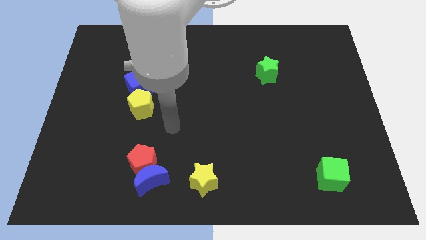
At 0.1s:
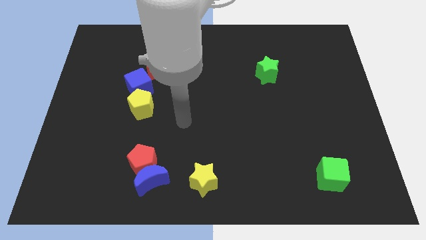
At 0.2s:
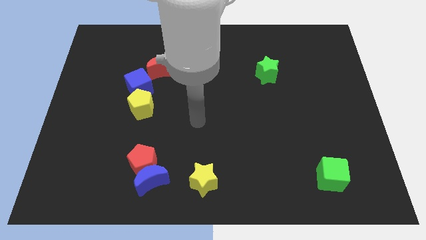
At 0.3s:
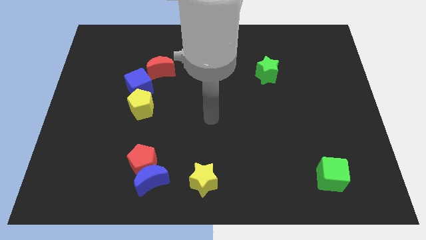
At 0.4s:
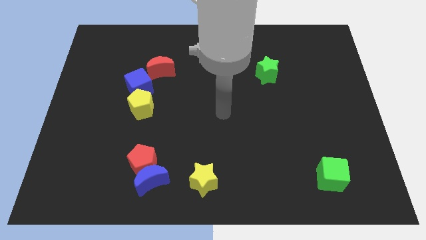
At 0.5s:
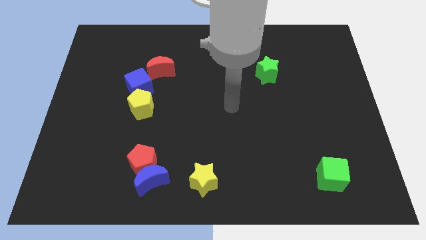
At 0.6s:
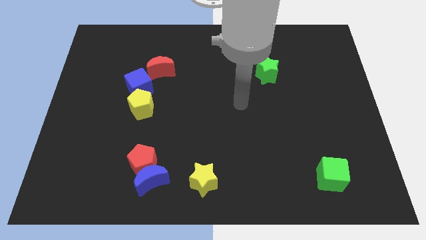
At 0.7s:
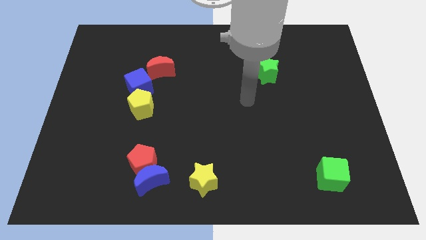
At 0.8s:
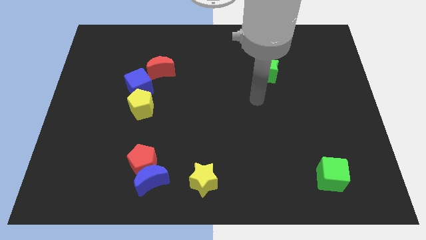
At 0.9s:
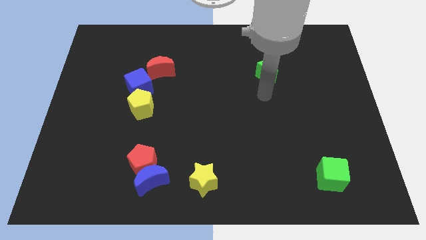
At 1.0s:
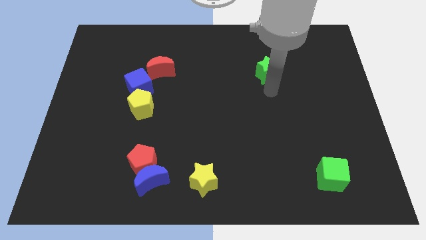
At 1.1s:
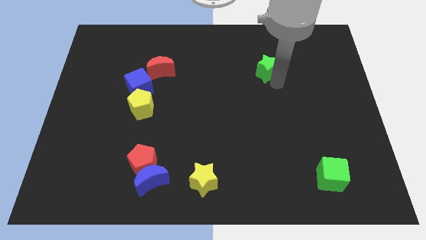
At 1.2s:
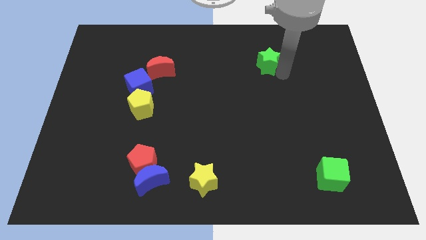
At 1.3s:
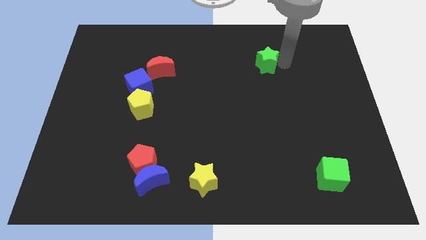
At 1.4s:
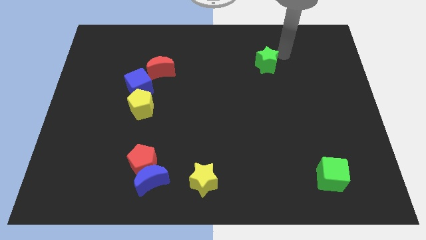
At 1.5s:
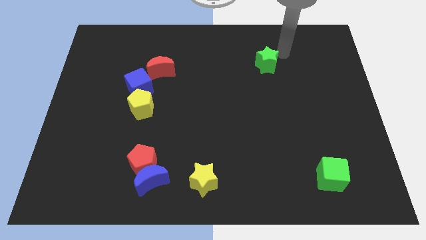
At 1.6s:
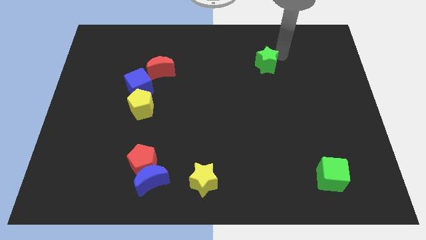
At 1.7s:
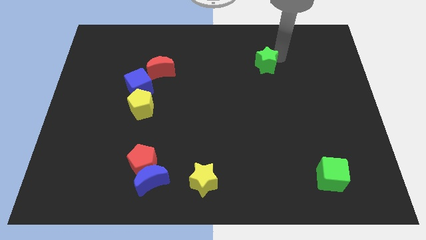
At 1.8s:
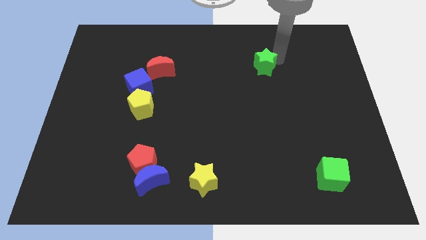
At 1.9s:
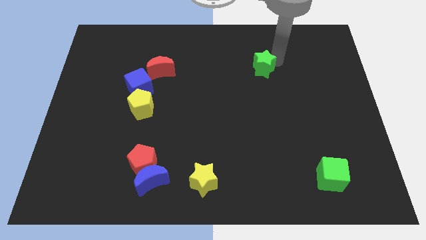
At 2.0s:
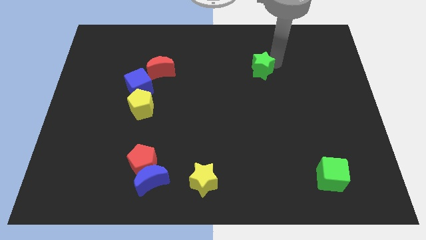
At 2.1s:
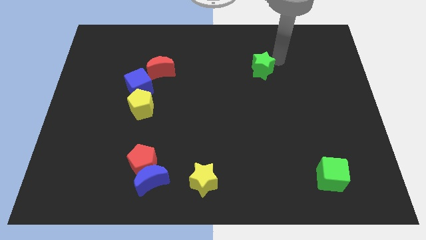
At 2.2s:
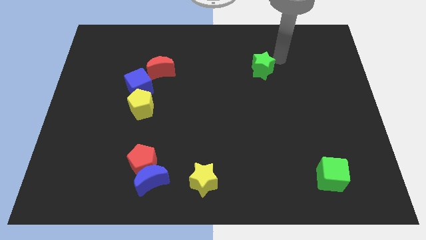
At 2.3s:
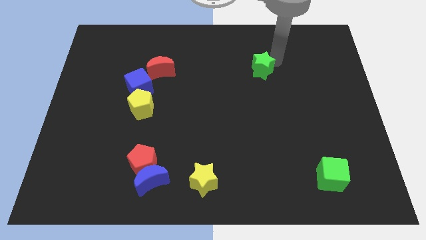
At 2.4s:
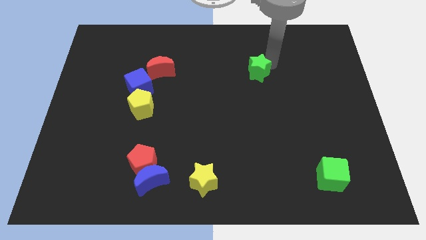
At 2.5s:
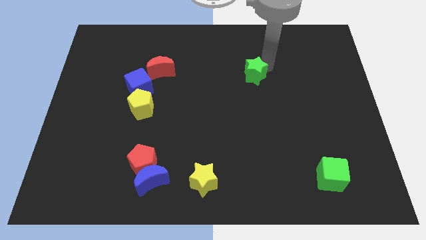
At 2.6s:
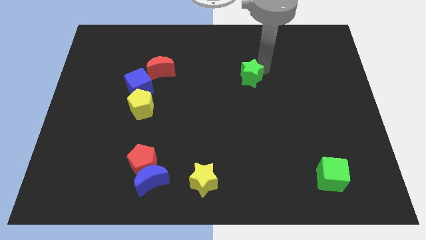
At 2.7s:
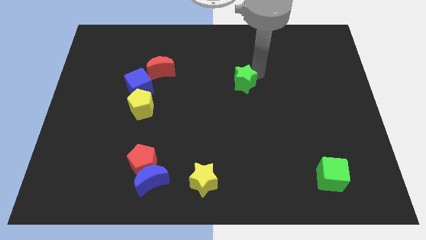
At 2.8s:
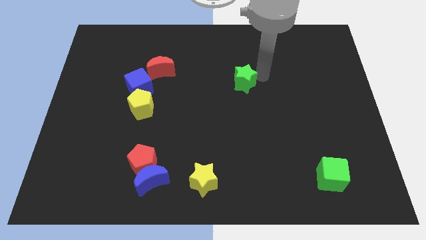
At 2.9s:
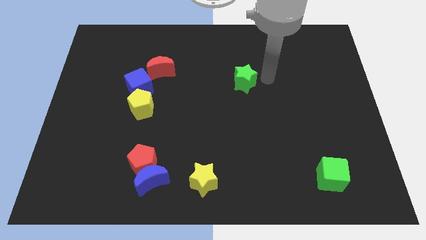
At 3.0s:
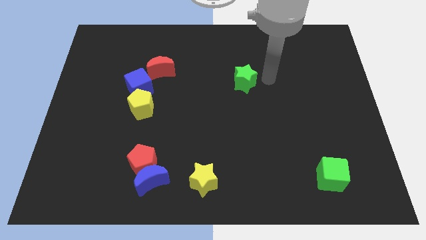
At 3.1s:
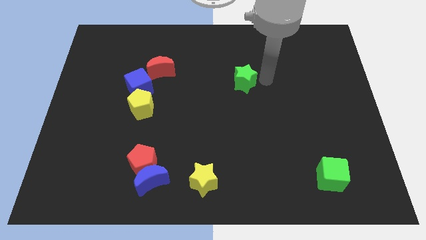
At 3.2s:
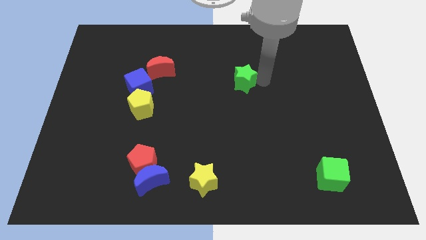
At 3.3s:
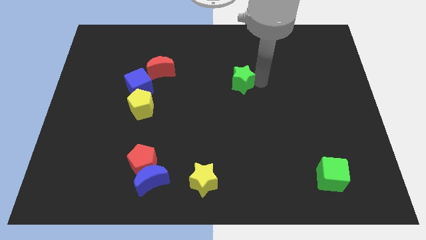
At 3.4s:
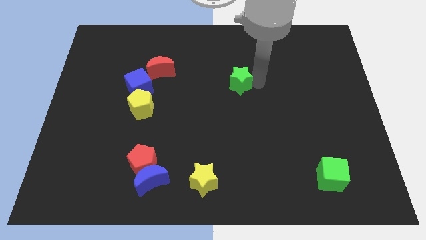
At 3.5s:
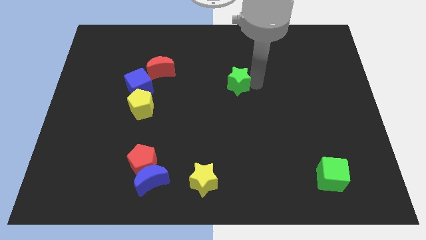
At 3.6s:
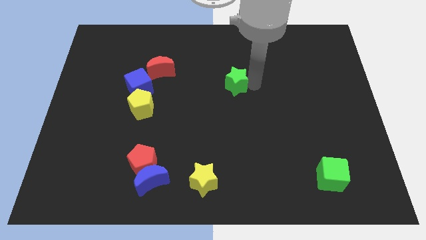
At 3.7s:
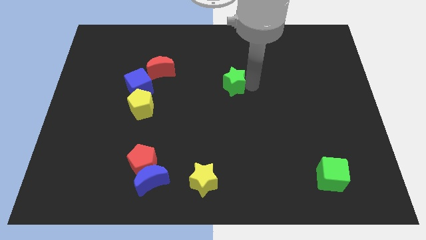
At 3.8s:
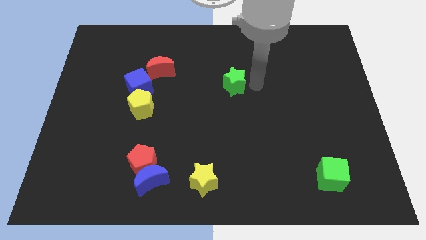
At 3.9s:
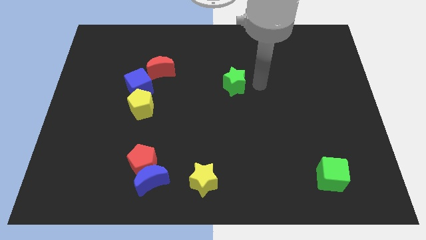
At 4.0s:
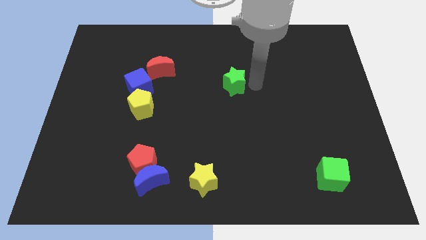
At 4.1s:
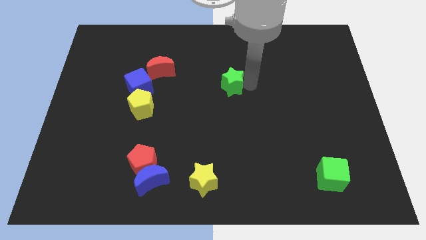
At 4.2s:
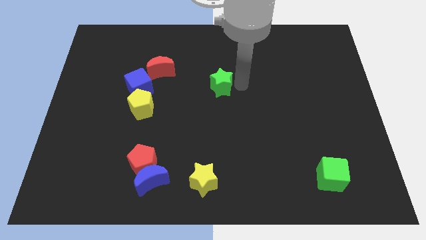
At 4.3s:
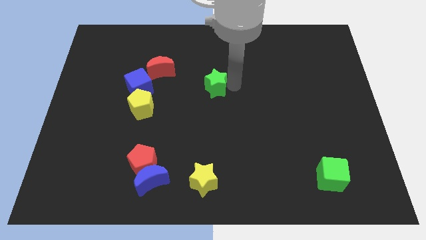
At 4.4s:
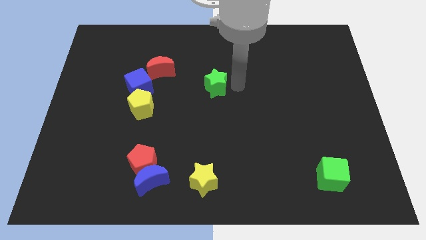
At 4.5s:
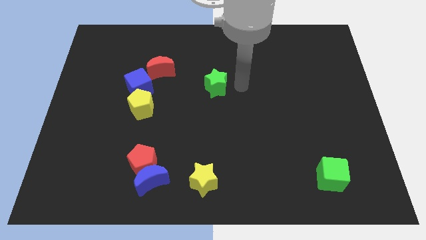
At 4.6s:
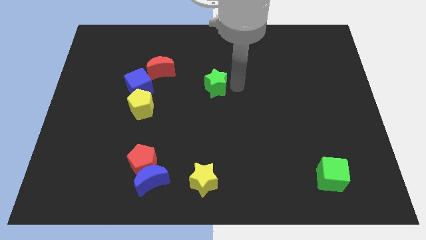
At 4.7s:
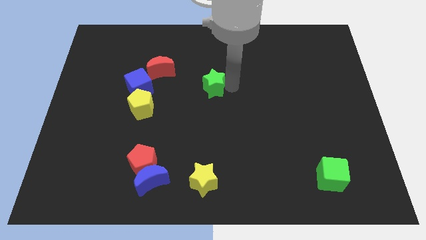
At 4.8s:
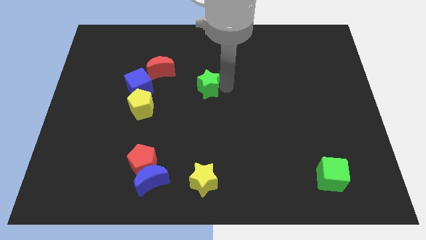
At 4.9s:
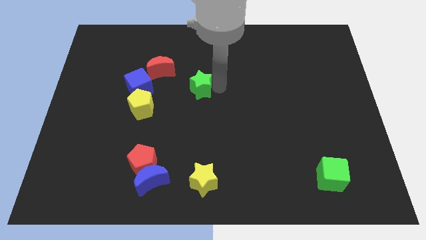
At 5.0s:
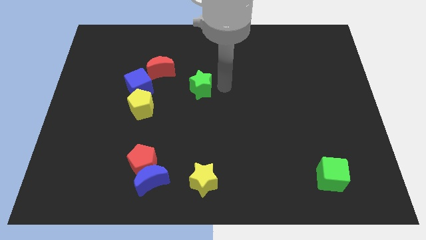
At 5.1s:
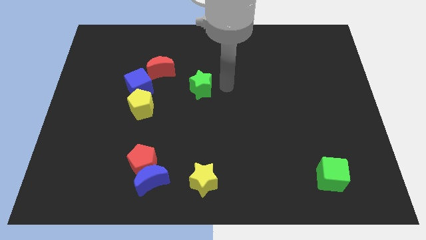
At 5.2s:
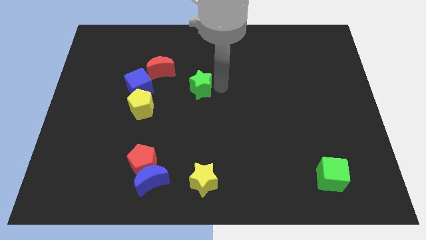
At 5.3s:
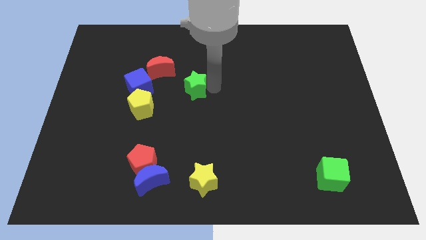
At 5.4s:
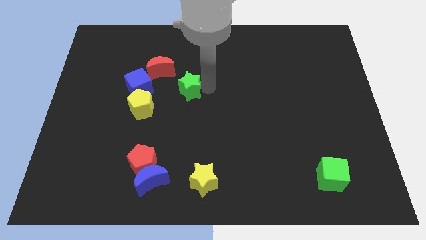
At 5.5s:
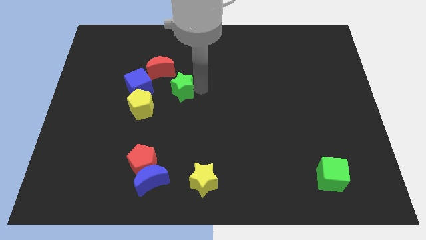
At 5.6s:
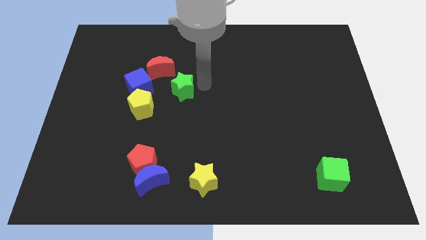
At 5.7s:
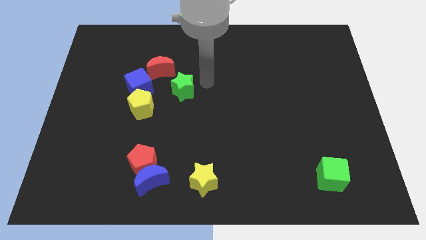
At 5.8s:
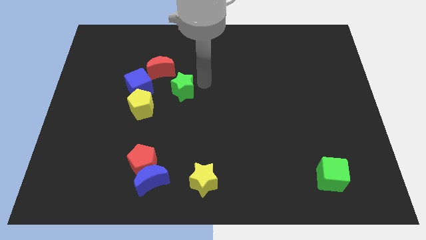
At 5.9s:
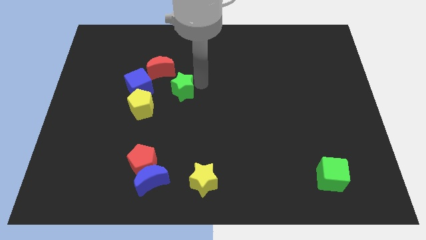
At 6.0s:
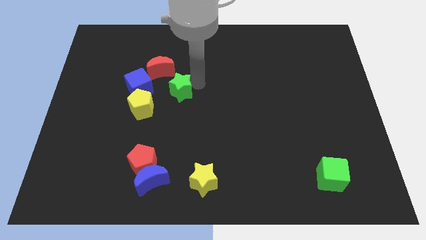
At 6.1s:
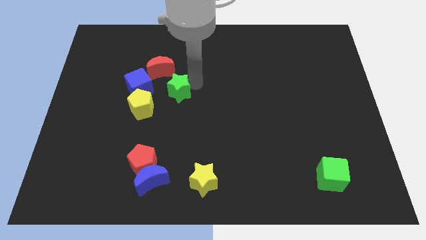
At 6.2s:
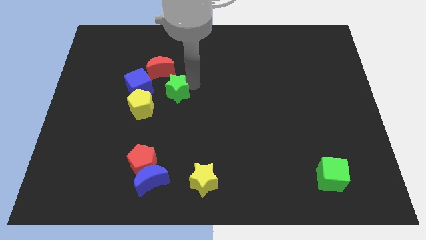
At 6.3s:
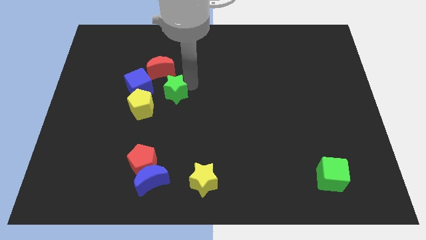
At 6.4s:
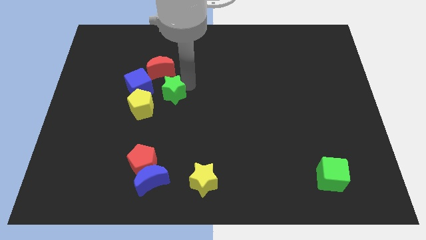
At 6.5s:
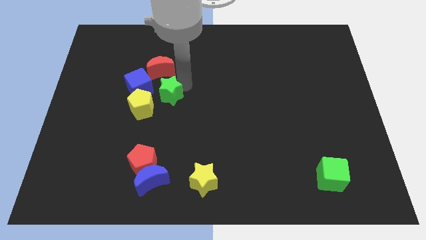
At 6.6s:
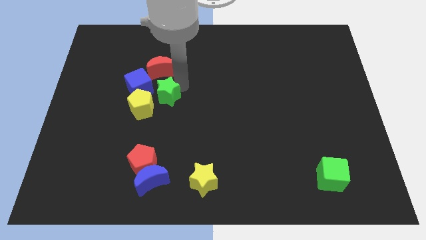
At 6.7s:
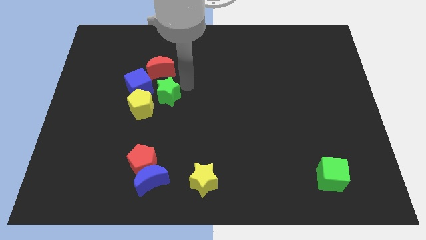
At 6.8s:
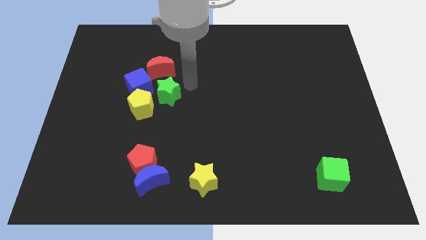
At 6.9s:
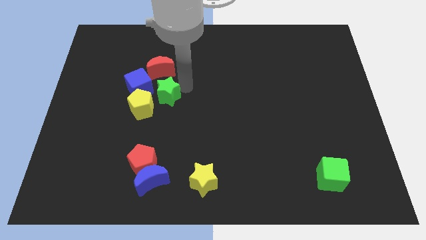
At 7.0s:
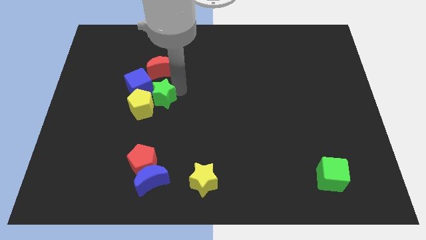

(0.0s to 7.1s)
slide the green star next to the yellow pentagon

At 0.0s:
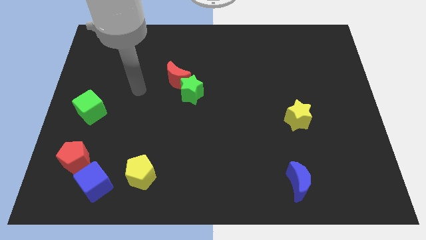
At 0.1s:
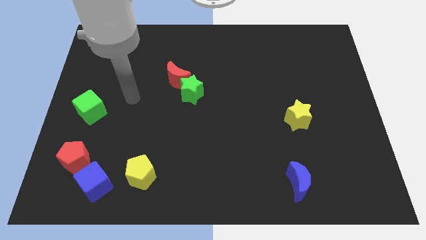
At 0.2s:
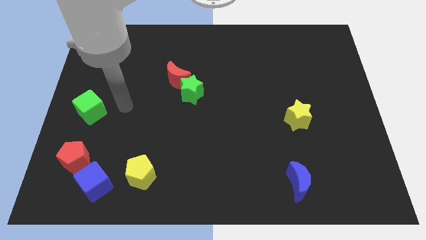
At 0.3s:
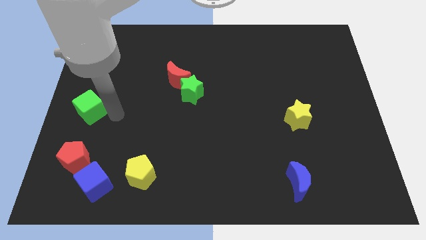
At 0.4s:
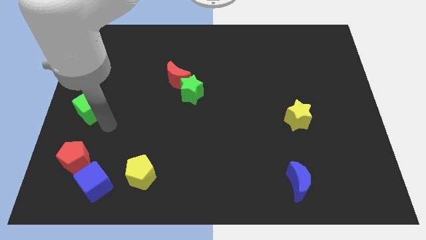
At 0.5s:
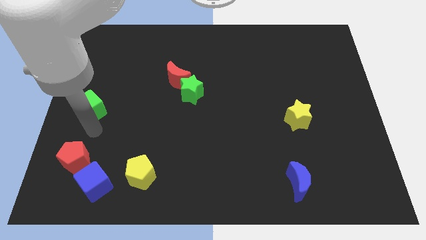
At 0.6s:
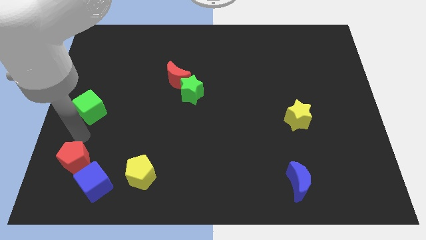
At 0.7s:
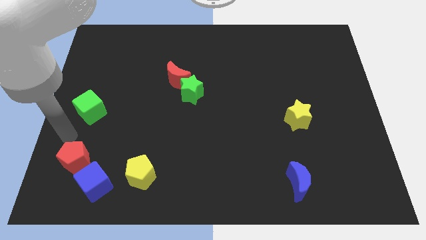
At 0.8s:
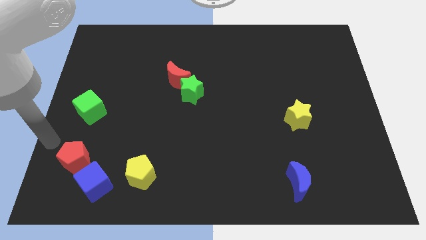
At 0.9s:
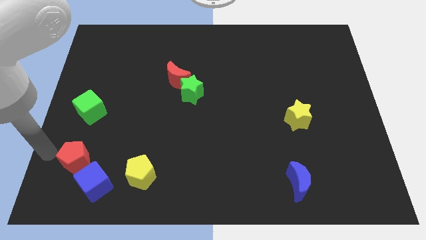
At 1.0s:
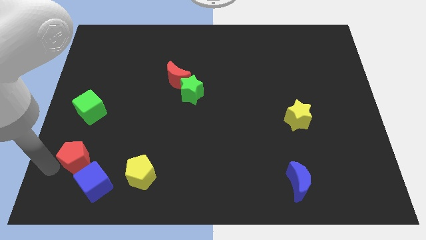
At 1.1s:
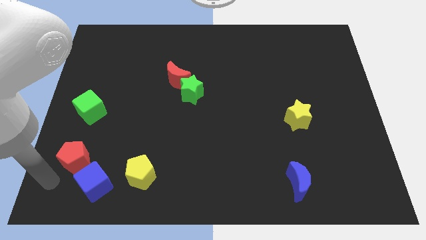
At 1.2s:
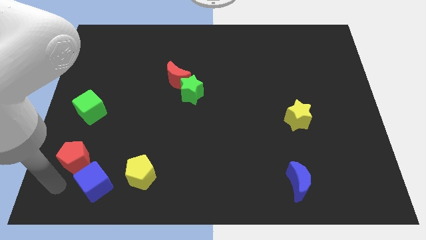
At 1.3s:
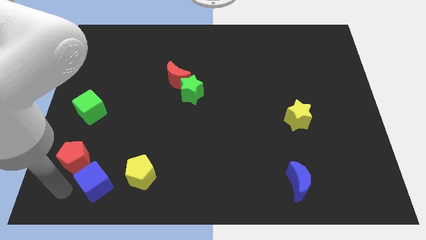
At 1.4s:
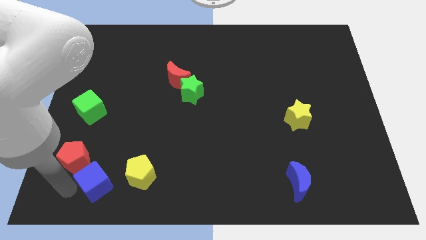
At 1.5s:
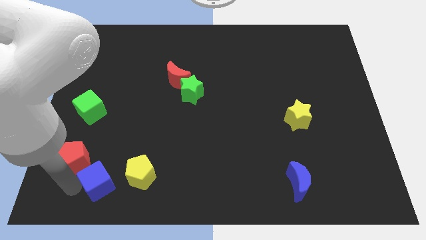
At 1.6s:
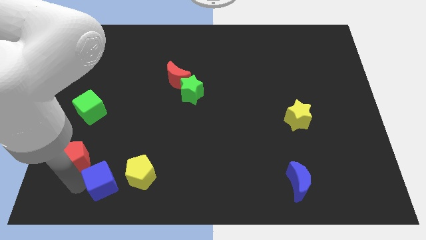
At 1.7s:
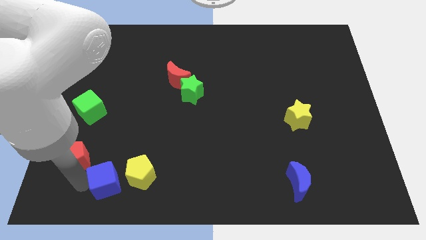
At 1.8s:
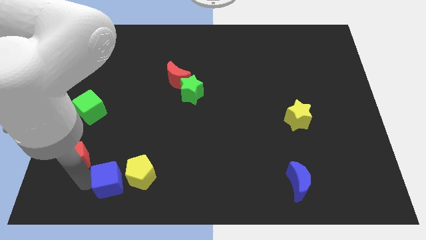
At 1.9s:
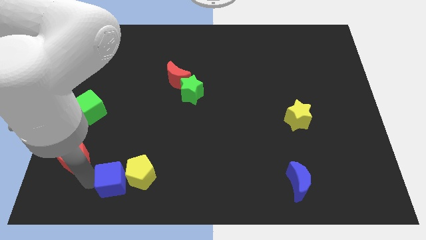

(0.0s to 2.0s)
slide the blue cube next to the yellow pentagon
